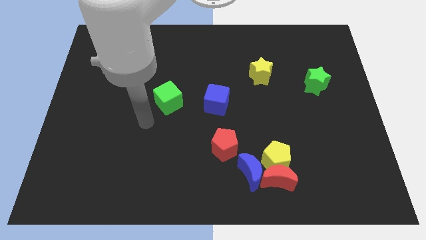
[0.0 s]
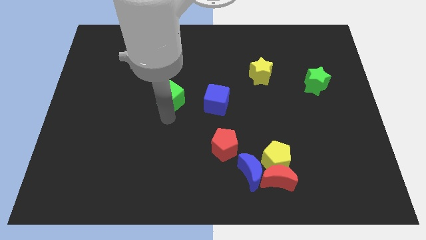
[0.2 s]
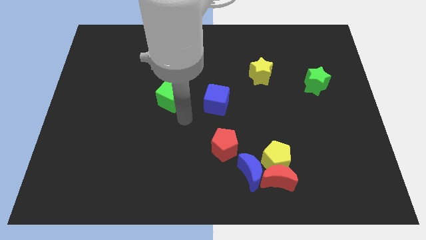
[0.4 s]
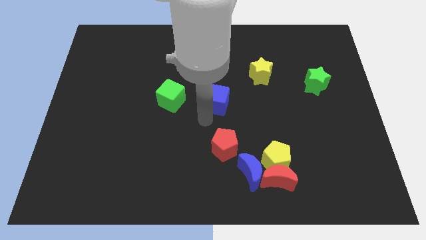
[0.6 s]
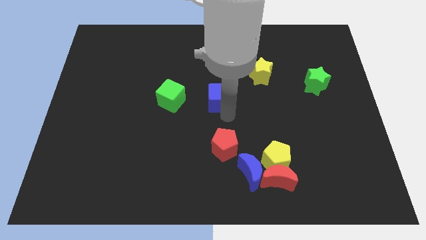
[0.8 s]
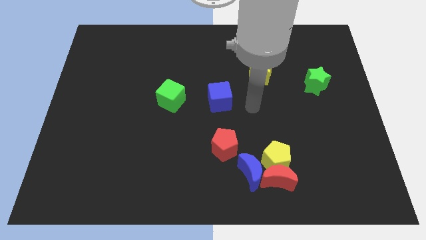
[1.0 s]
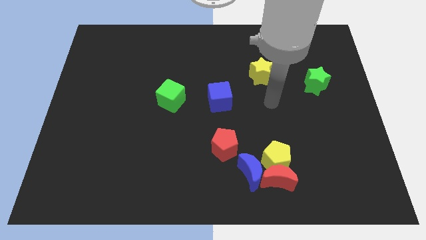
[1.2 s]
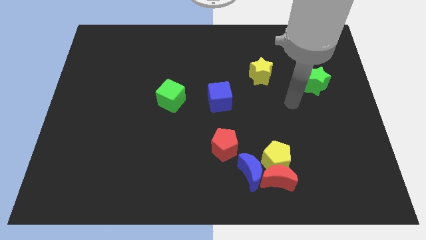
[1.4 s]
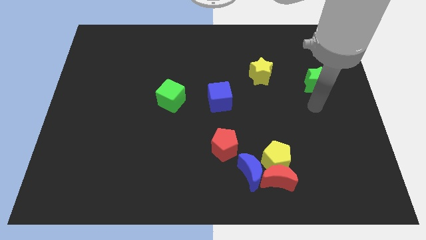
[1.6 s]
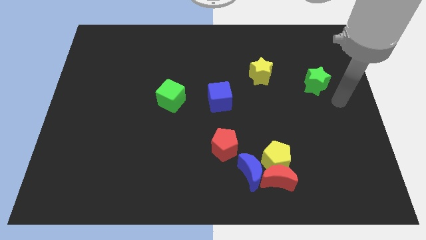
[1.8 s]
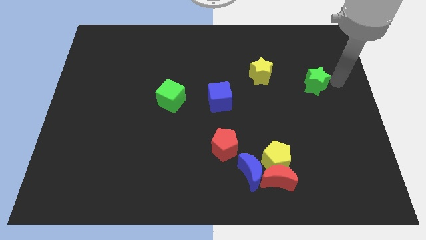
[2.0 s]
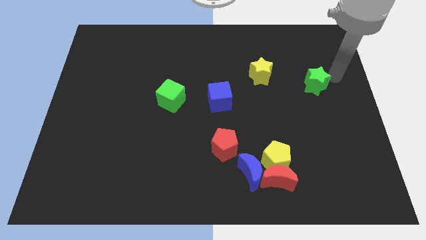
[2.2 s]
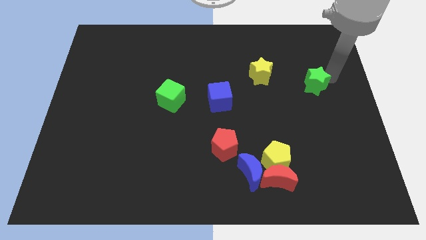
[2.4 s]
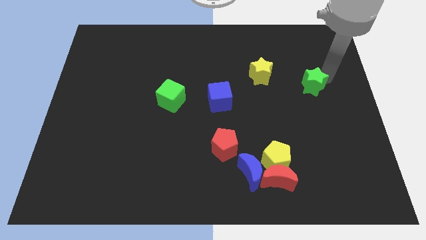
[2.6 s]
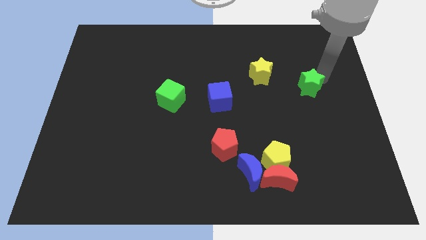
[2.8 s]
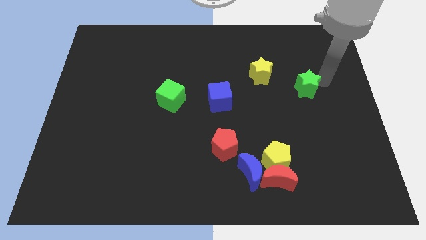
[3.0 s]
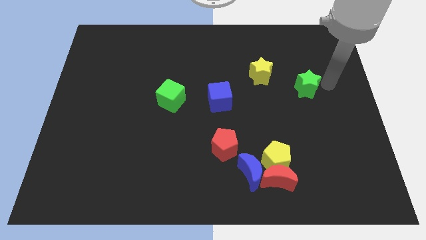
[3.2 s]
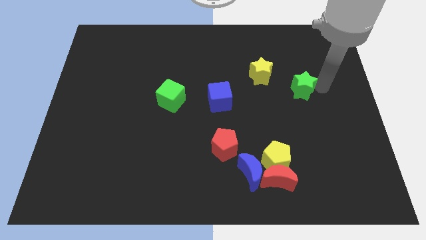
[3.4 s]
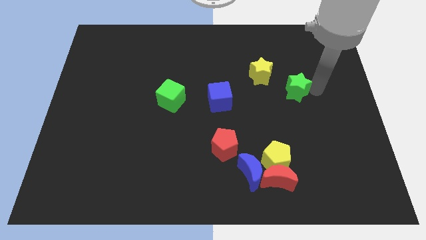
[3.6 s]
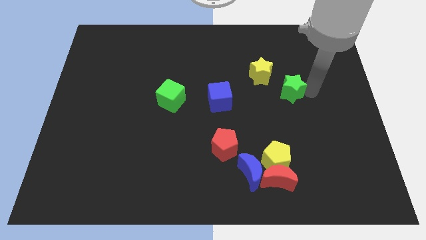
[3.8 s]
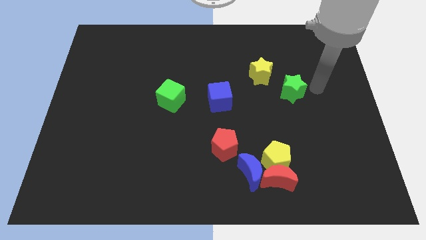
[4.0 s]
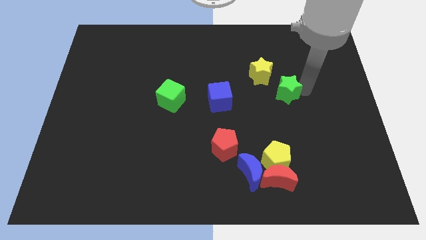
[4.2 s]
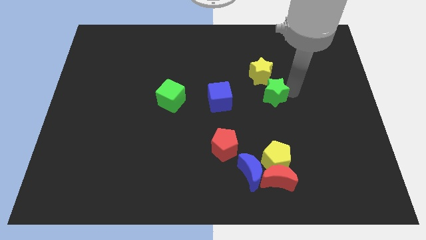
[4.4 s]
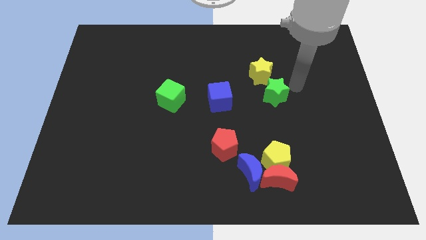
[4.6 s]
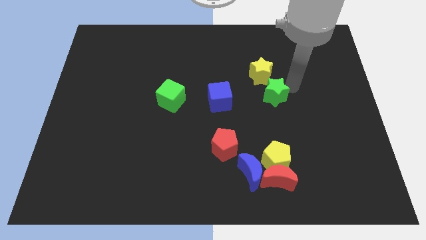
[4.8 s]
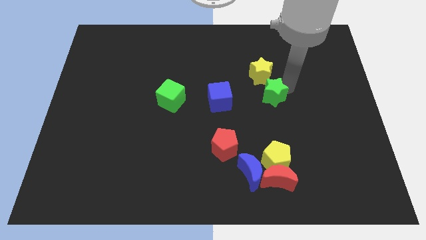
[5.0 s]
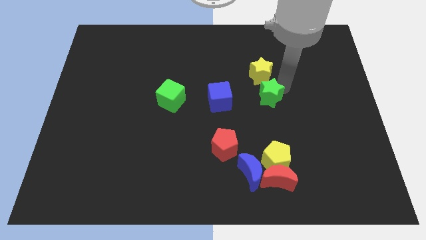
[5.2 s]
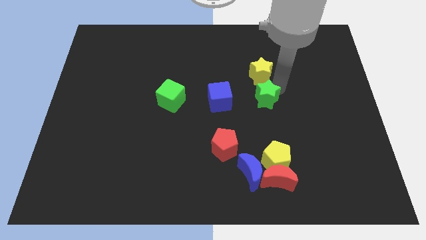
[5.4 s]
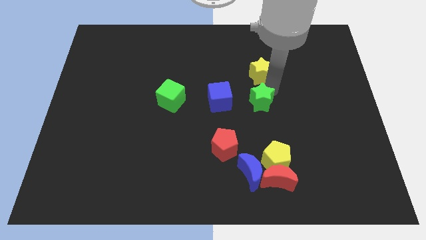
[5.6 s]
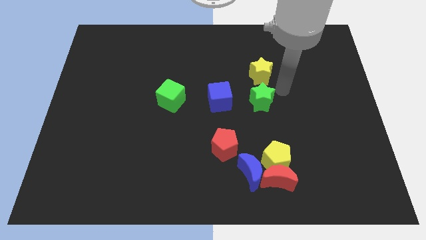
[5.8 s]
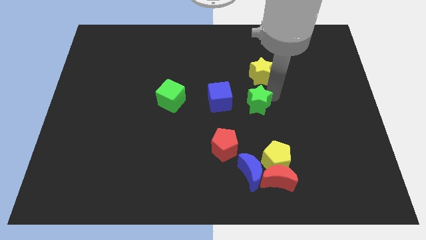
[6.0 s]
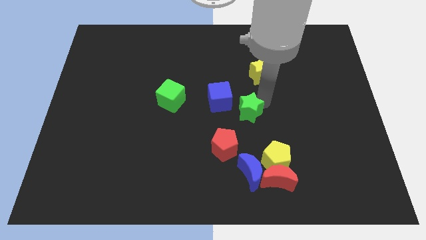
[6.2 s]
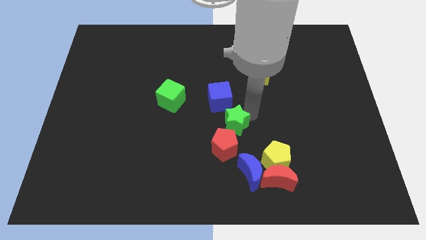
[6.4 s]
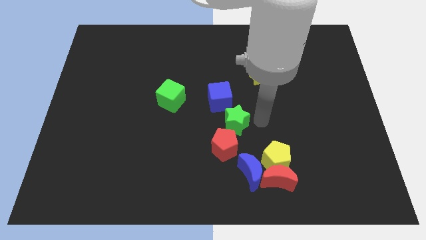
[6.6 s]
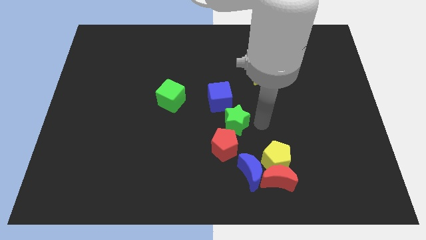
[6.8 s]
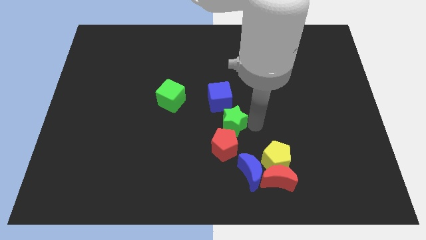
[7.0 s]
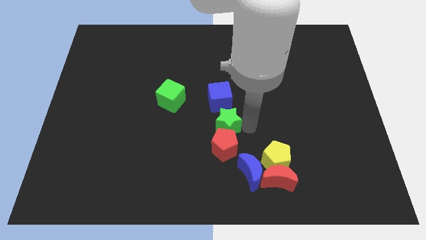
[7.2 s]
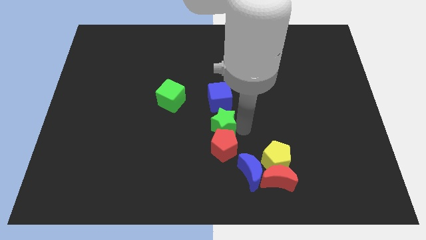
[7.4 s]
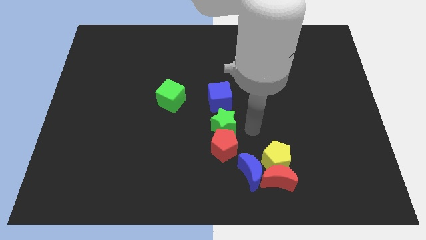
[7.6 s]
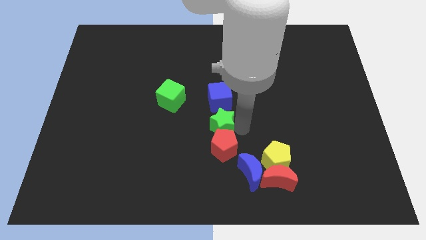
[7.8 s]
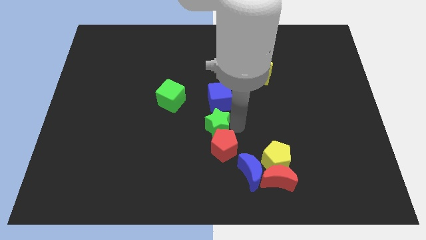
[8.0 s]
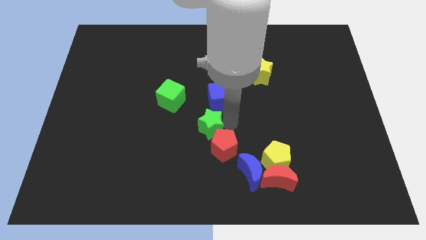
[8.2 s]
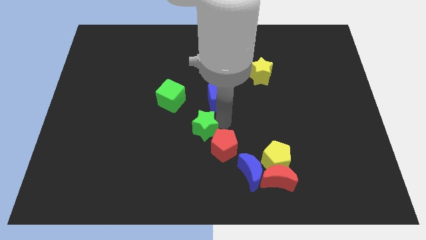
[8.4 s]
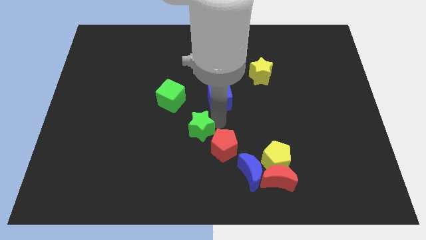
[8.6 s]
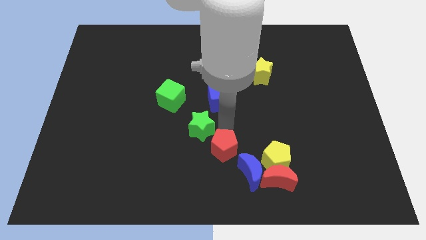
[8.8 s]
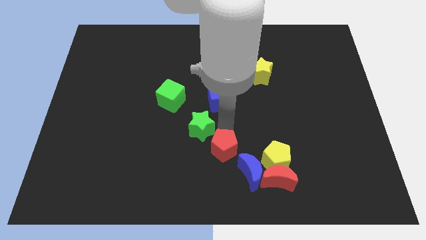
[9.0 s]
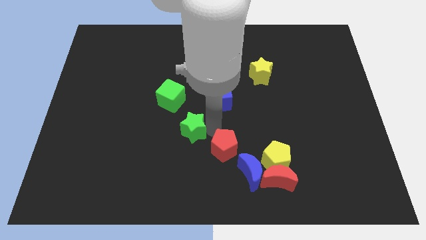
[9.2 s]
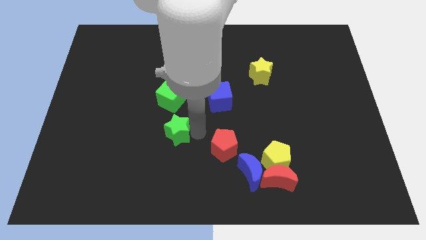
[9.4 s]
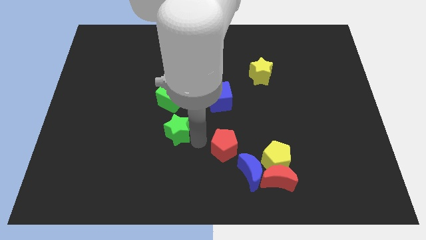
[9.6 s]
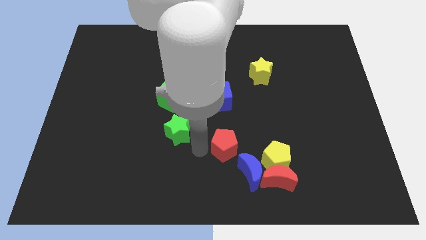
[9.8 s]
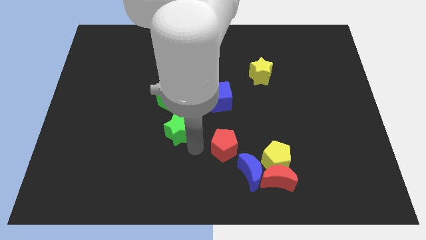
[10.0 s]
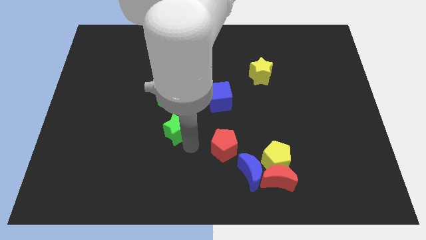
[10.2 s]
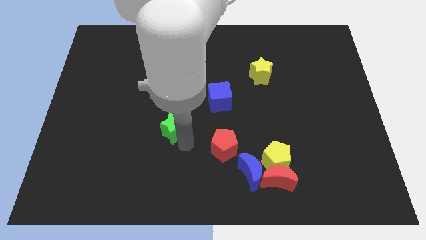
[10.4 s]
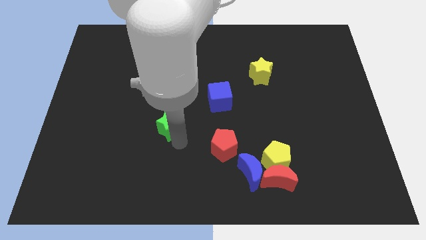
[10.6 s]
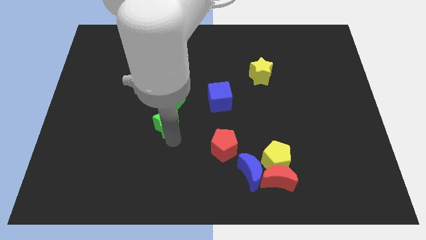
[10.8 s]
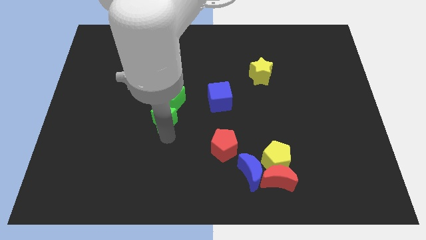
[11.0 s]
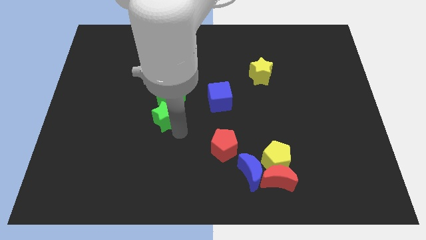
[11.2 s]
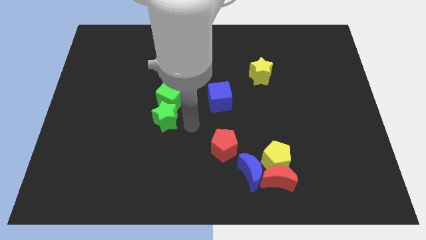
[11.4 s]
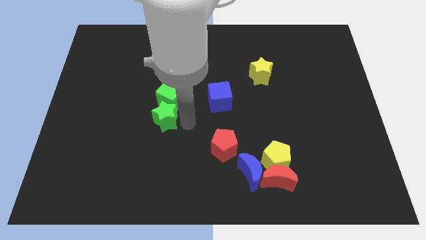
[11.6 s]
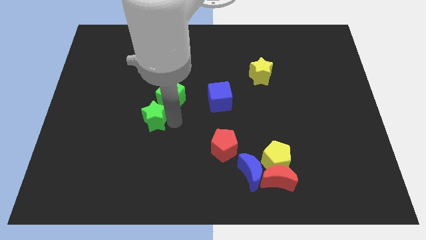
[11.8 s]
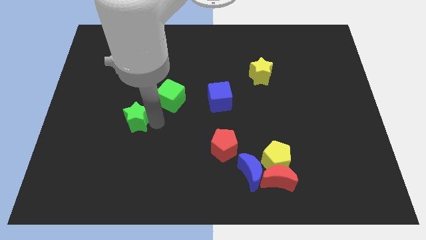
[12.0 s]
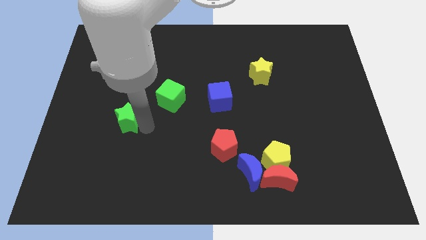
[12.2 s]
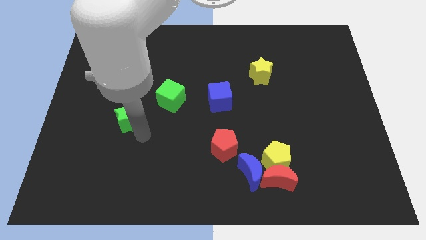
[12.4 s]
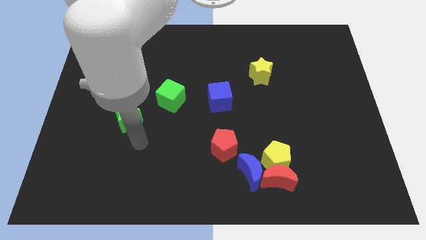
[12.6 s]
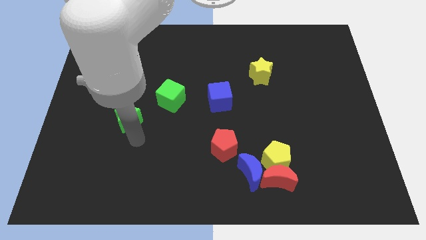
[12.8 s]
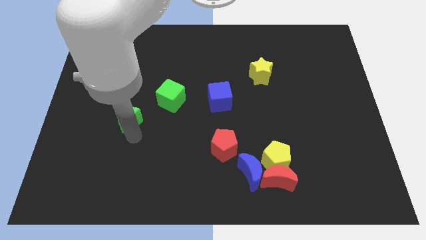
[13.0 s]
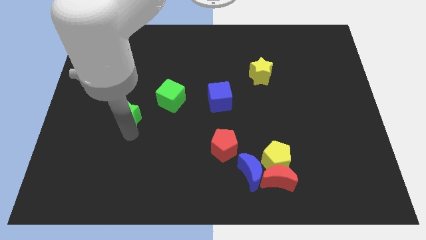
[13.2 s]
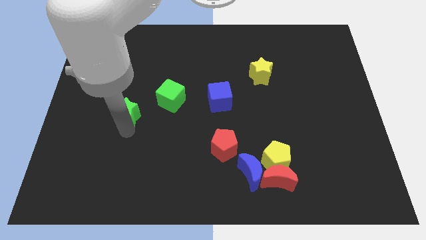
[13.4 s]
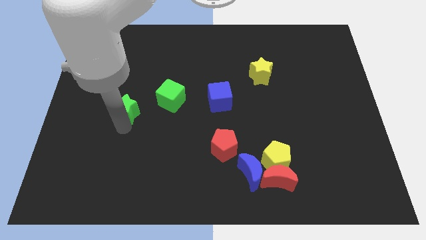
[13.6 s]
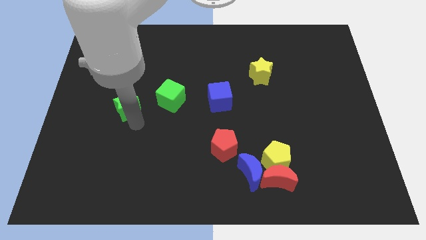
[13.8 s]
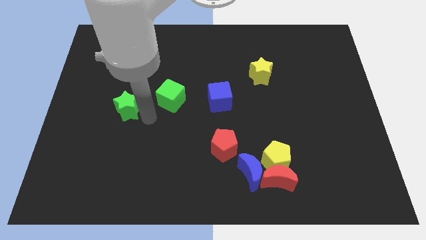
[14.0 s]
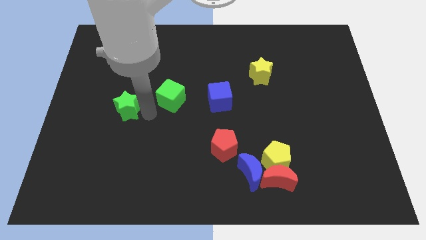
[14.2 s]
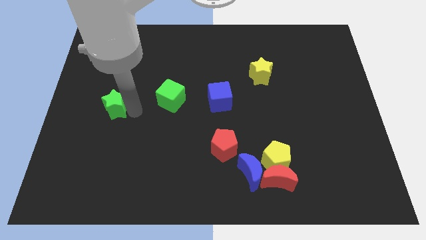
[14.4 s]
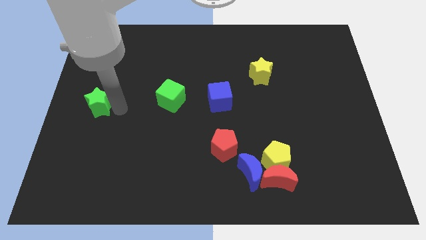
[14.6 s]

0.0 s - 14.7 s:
move the green star to the center left

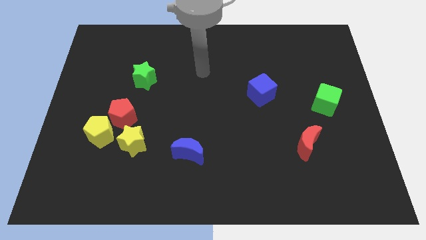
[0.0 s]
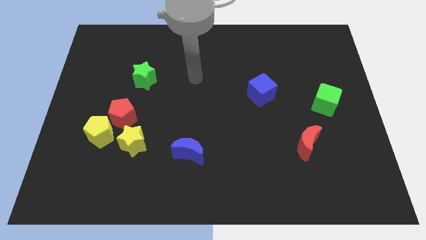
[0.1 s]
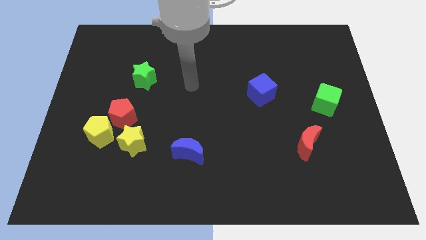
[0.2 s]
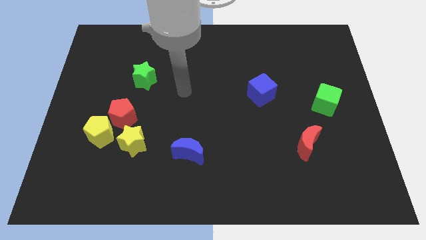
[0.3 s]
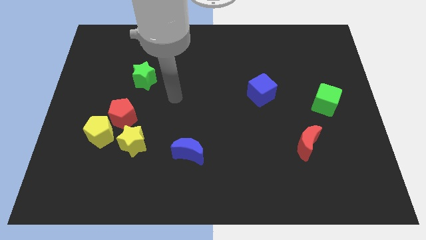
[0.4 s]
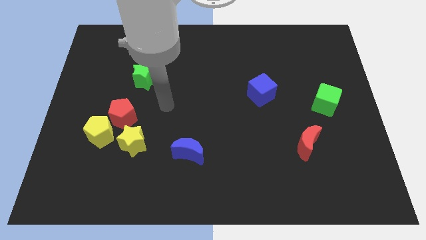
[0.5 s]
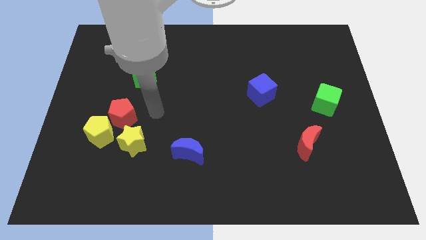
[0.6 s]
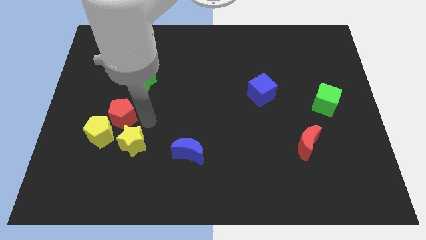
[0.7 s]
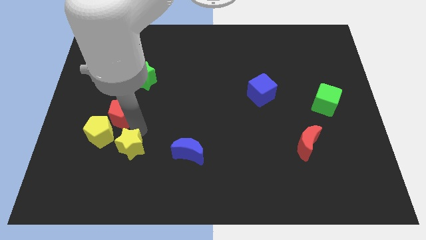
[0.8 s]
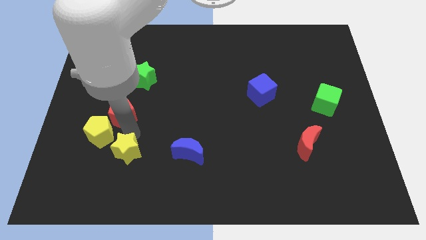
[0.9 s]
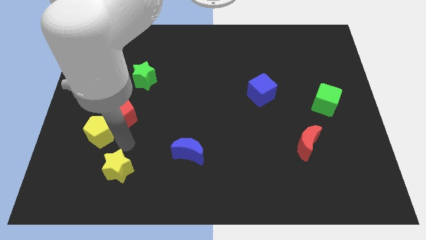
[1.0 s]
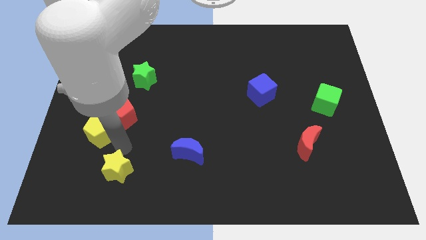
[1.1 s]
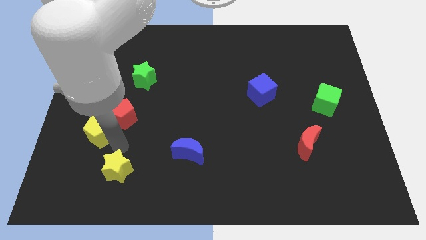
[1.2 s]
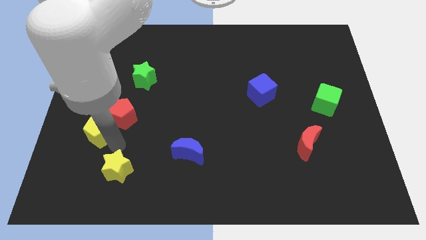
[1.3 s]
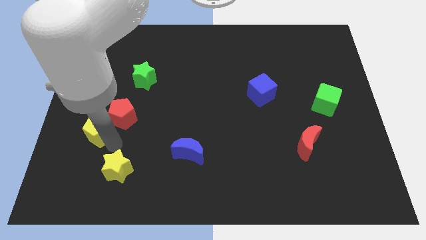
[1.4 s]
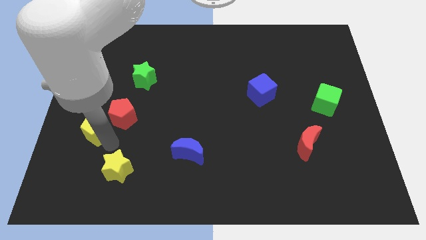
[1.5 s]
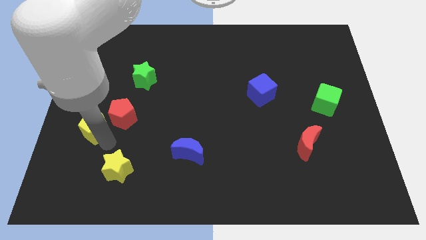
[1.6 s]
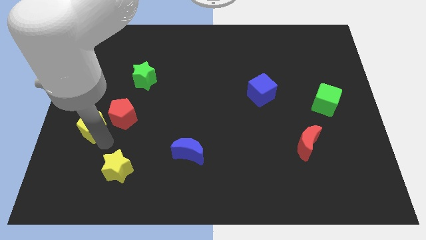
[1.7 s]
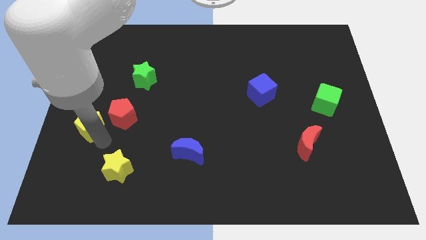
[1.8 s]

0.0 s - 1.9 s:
slide the yellow pentagon to the left side of the board
